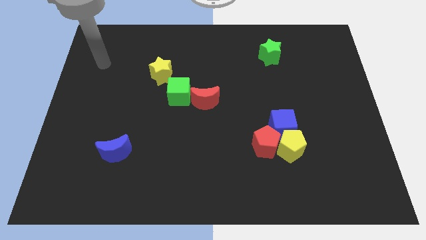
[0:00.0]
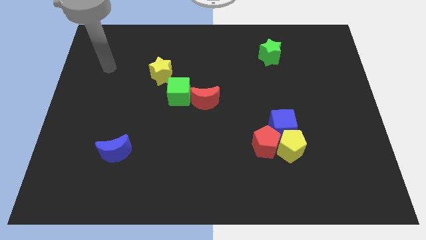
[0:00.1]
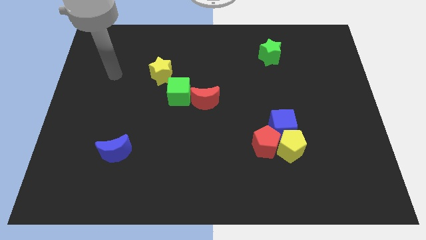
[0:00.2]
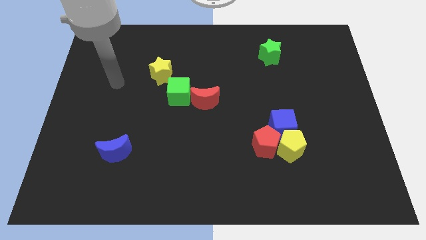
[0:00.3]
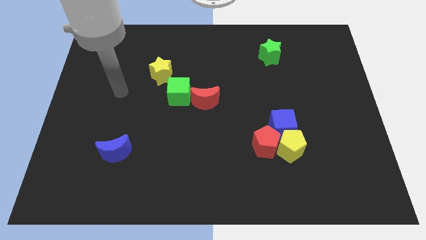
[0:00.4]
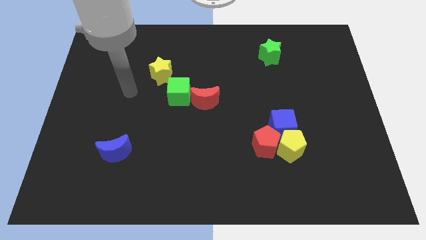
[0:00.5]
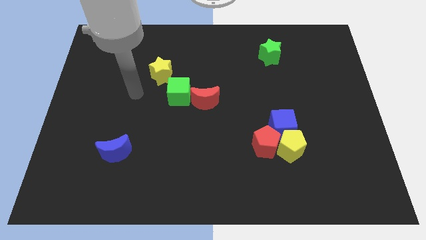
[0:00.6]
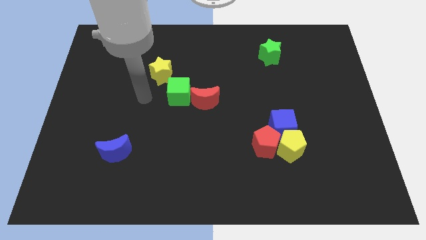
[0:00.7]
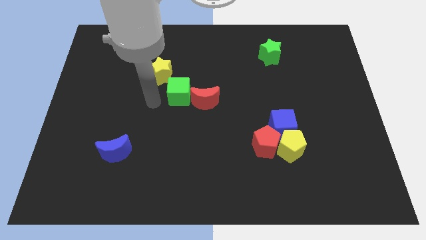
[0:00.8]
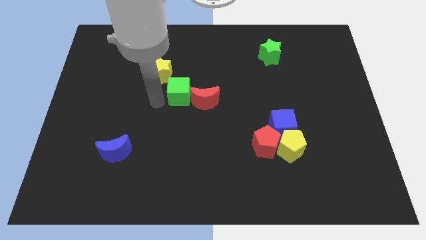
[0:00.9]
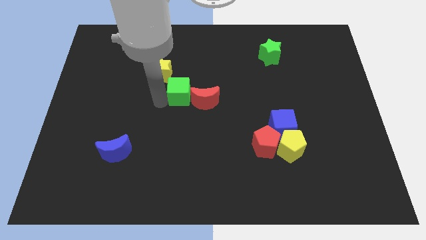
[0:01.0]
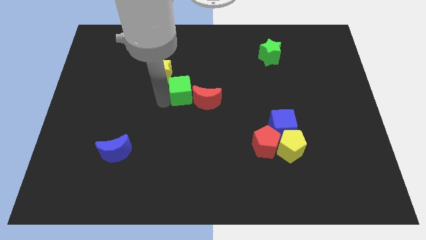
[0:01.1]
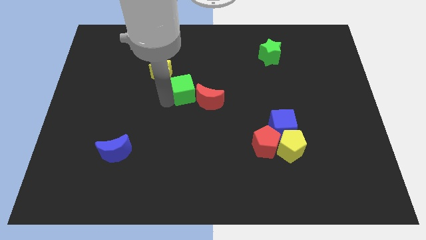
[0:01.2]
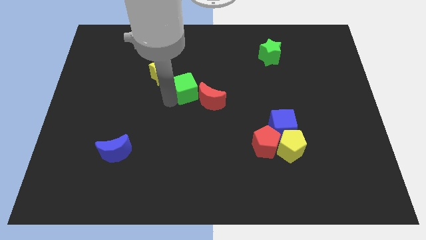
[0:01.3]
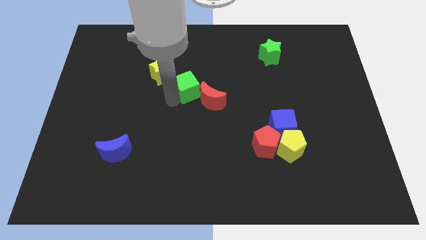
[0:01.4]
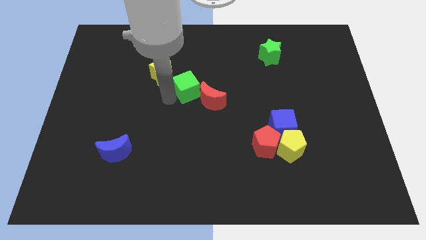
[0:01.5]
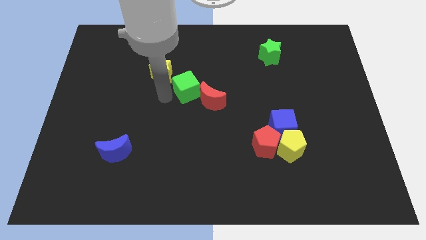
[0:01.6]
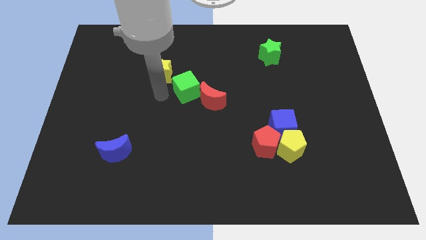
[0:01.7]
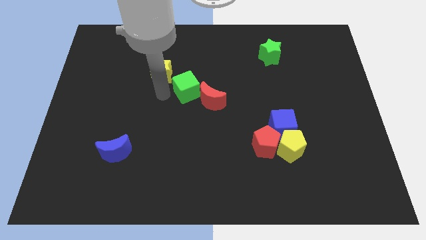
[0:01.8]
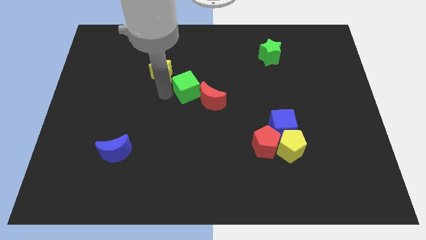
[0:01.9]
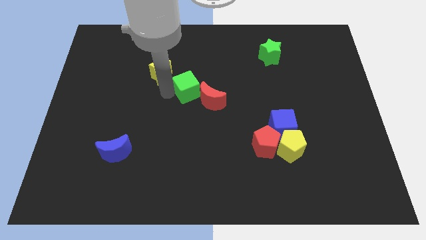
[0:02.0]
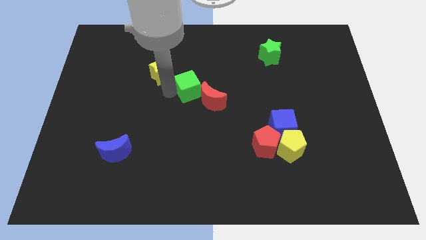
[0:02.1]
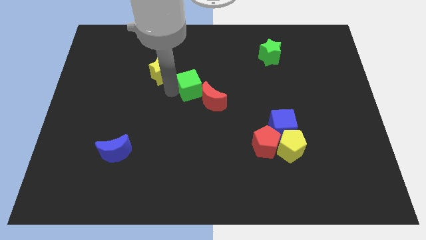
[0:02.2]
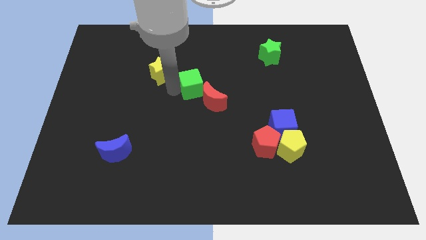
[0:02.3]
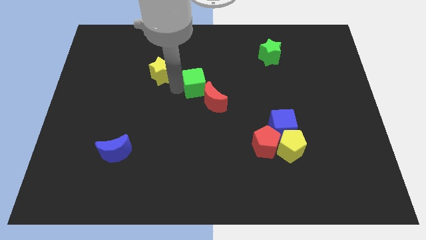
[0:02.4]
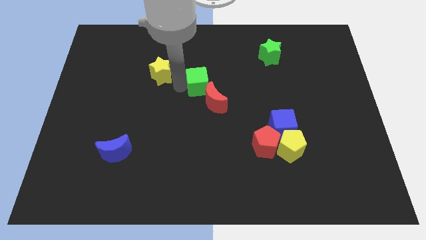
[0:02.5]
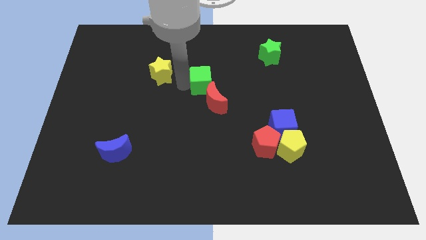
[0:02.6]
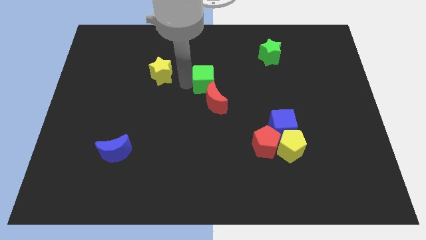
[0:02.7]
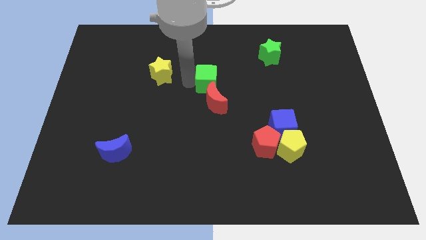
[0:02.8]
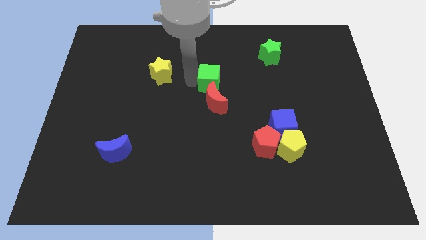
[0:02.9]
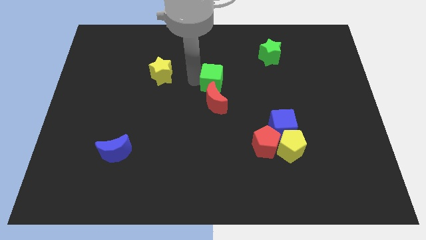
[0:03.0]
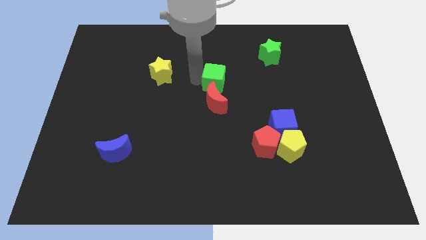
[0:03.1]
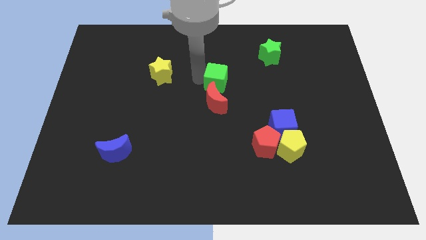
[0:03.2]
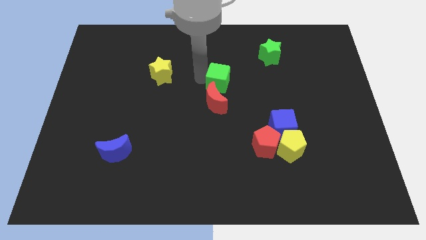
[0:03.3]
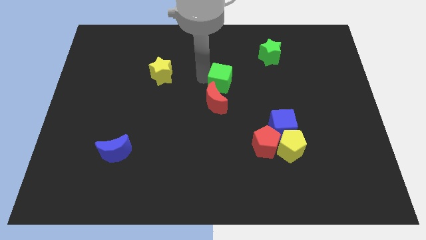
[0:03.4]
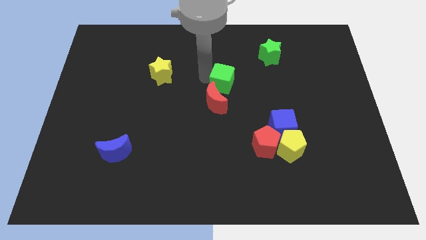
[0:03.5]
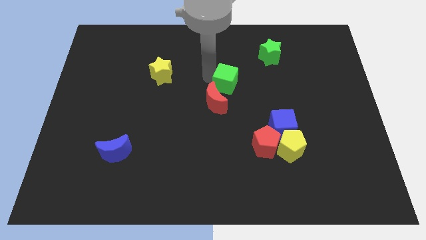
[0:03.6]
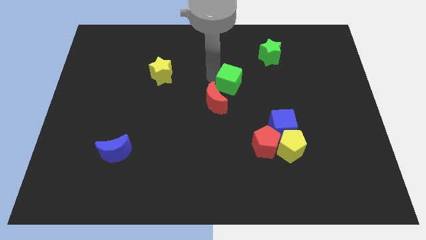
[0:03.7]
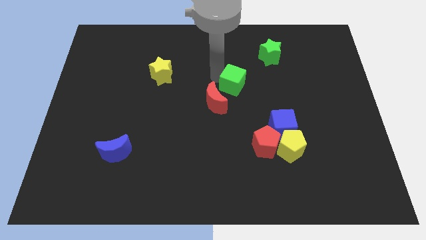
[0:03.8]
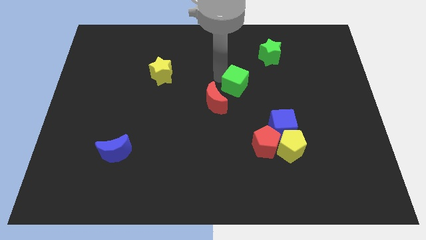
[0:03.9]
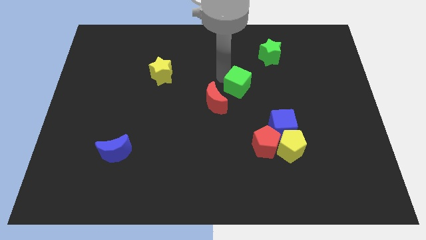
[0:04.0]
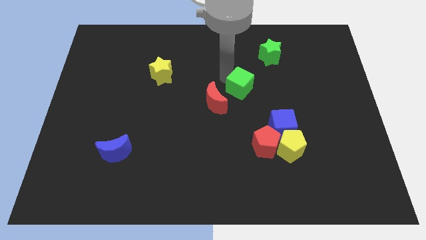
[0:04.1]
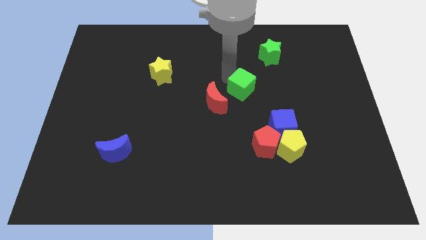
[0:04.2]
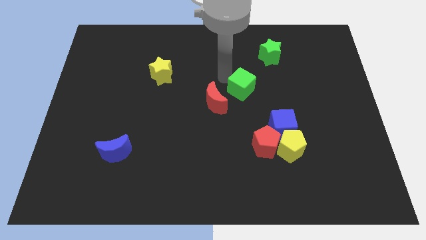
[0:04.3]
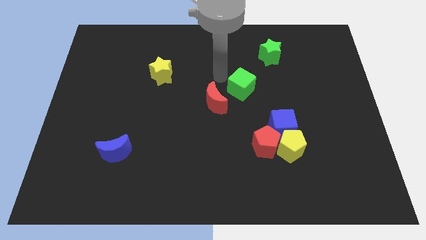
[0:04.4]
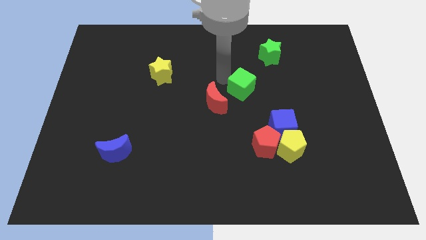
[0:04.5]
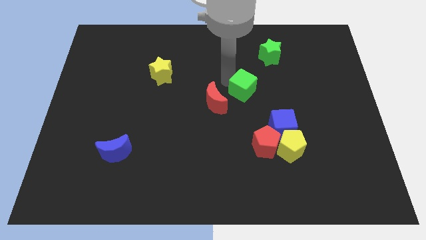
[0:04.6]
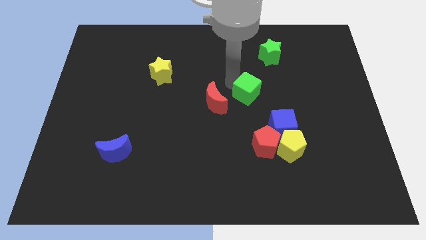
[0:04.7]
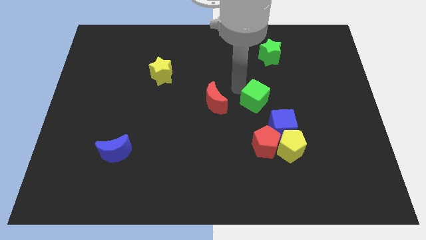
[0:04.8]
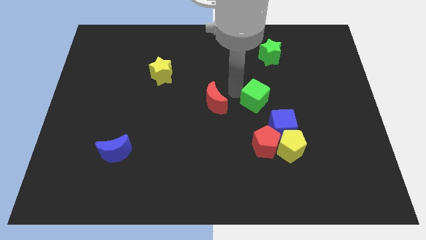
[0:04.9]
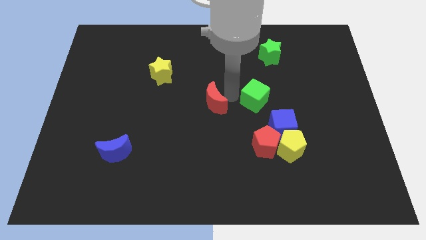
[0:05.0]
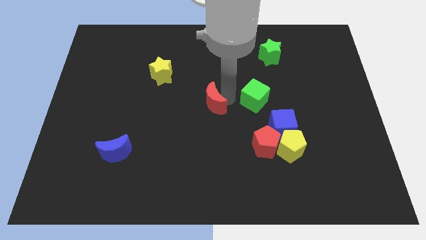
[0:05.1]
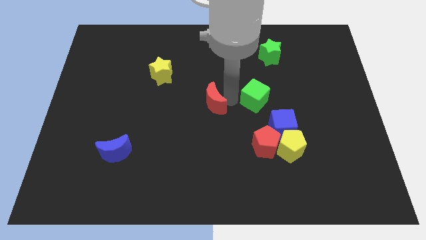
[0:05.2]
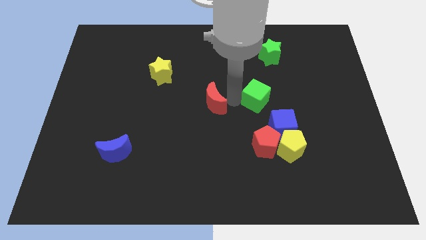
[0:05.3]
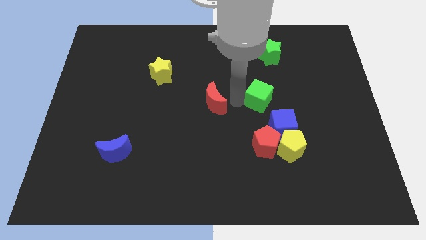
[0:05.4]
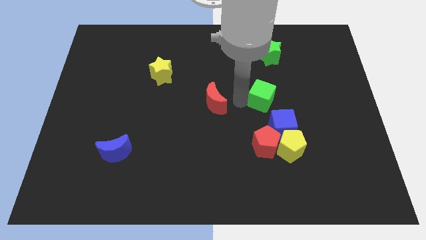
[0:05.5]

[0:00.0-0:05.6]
move the green cube to the right

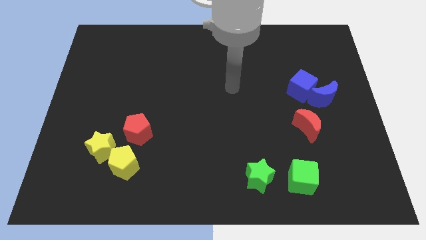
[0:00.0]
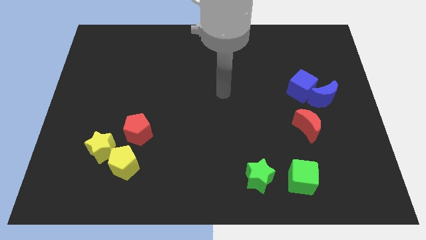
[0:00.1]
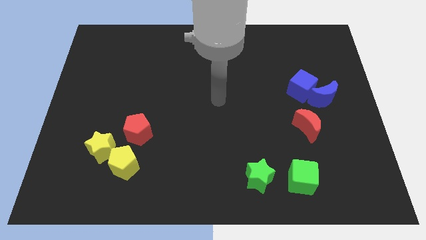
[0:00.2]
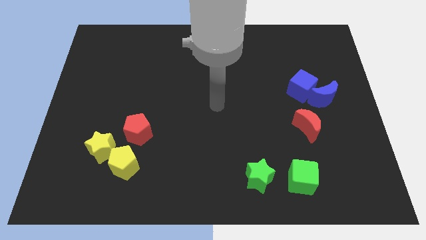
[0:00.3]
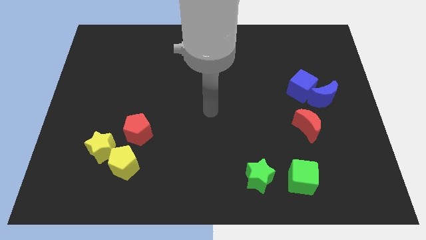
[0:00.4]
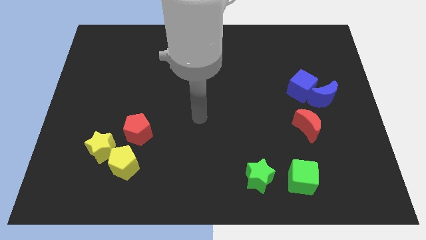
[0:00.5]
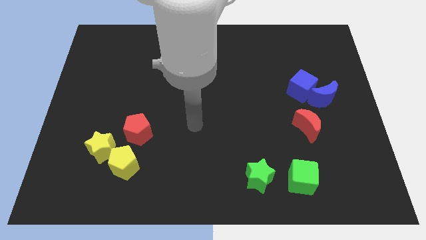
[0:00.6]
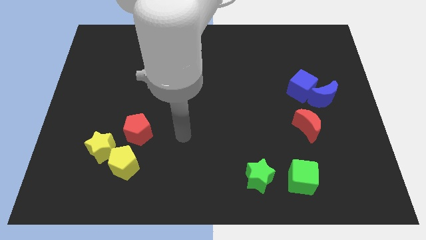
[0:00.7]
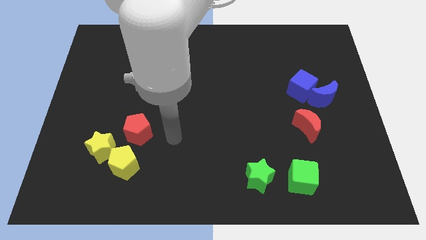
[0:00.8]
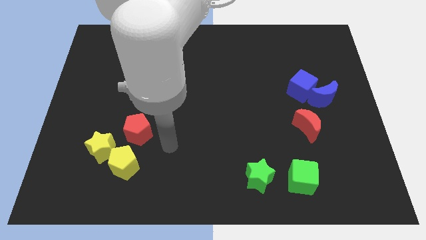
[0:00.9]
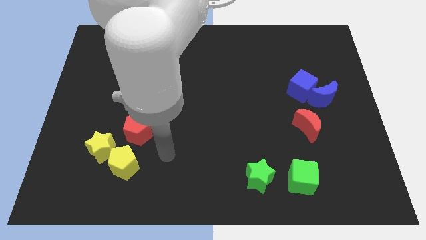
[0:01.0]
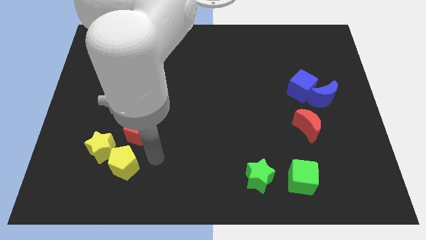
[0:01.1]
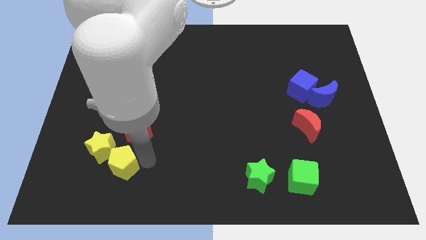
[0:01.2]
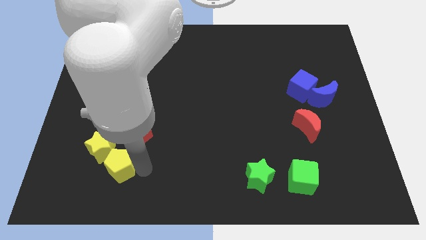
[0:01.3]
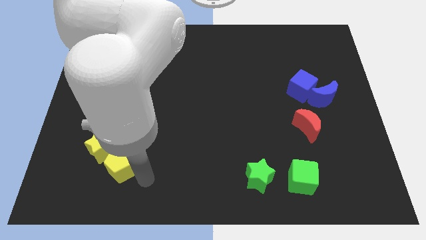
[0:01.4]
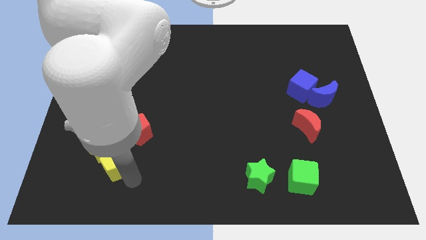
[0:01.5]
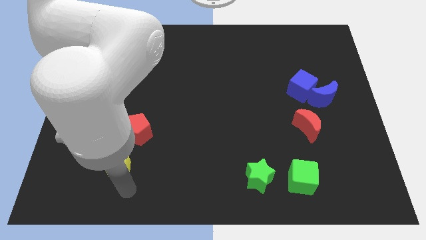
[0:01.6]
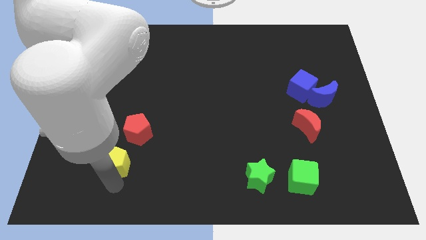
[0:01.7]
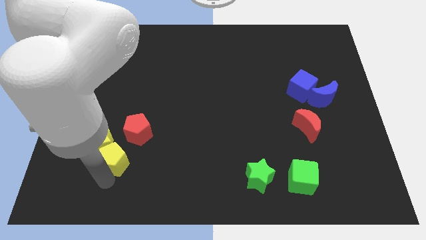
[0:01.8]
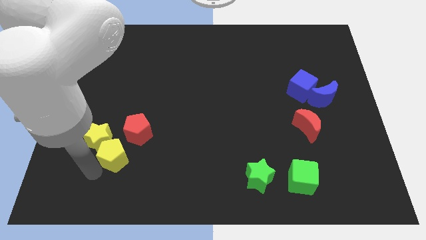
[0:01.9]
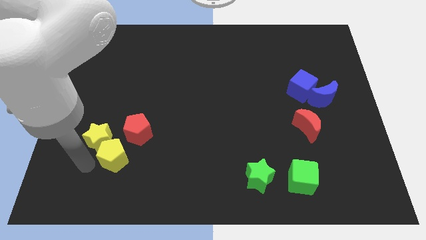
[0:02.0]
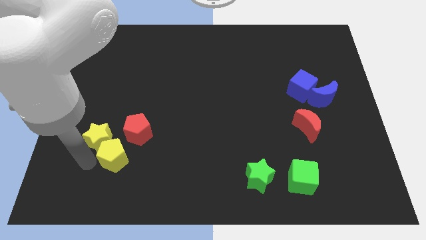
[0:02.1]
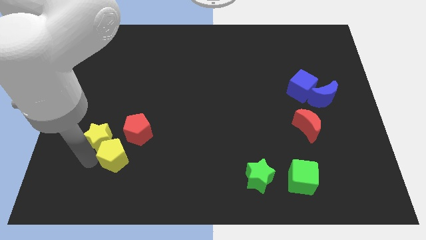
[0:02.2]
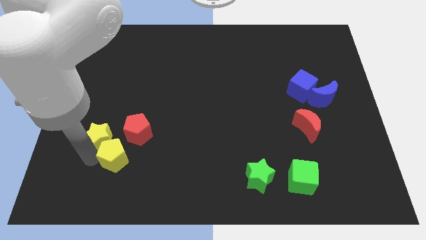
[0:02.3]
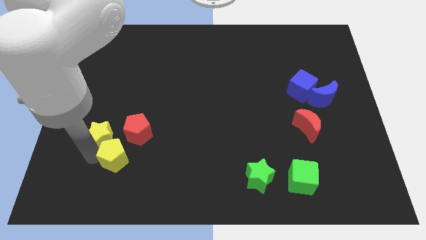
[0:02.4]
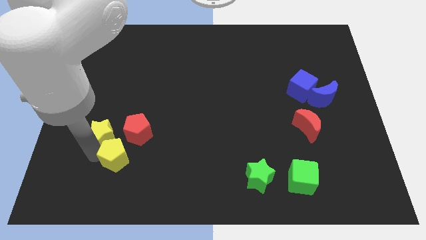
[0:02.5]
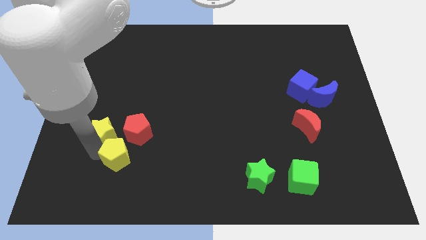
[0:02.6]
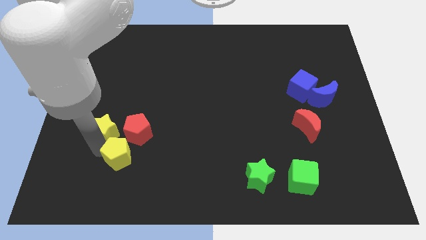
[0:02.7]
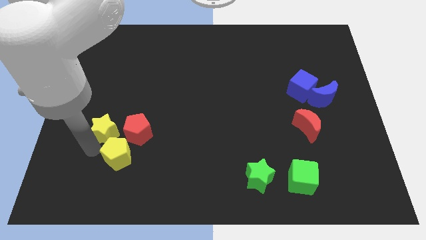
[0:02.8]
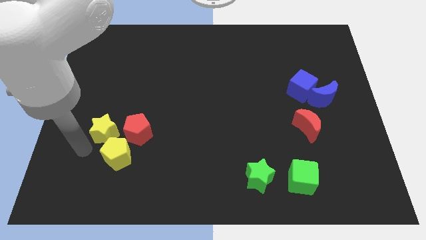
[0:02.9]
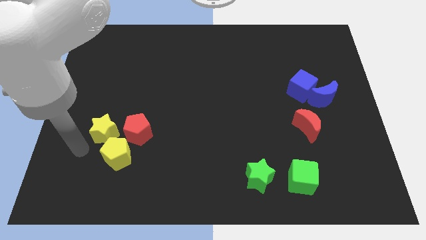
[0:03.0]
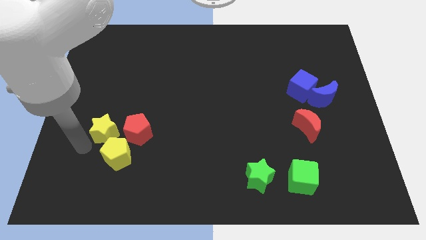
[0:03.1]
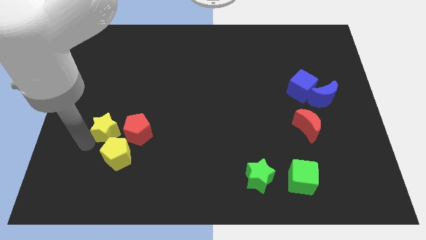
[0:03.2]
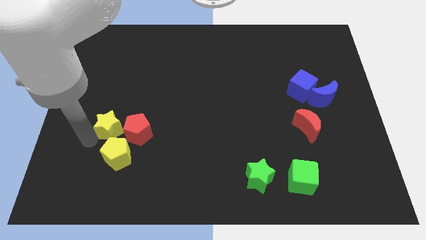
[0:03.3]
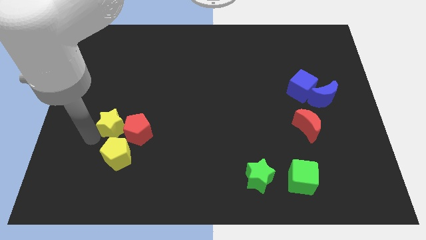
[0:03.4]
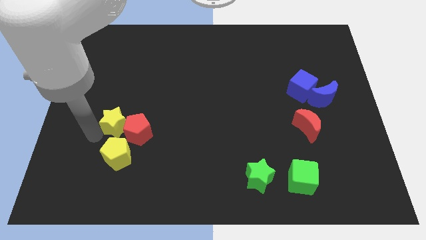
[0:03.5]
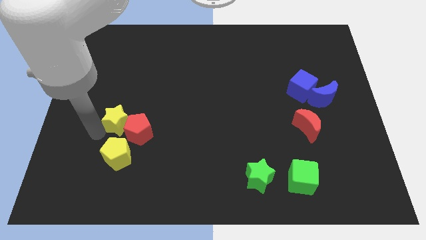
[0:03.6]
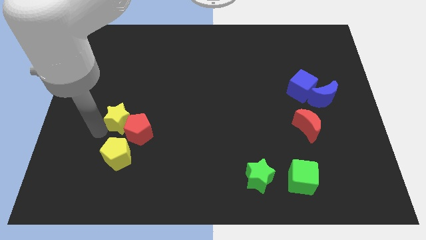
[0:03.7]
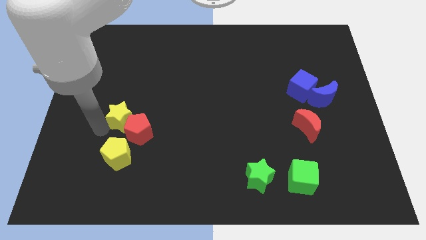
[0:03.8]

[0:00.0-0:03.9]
slide the yellow star up and then to the right a bit
